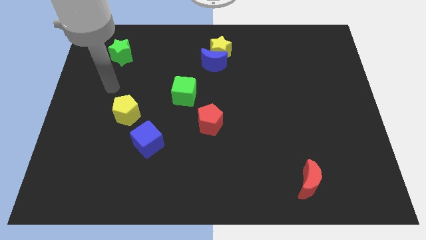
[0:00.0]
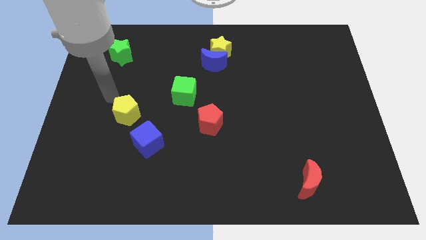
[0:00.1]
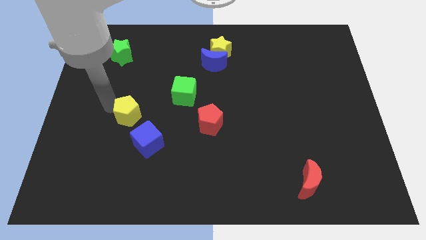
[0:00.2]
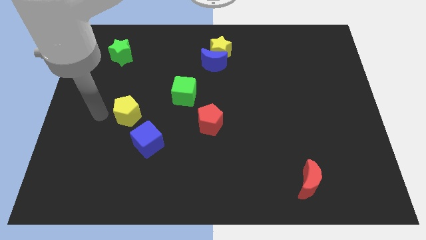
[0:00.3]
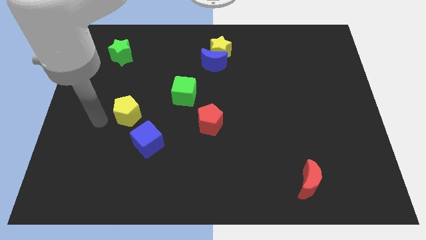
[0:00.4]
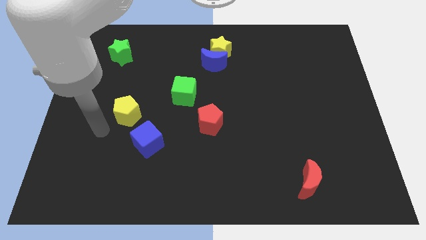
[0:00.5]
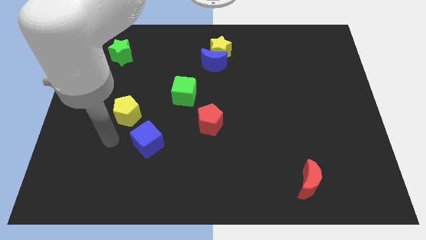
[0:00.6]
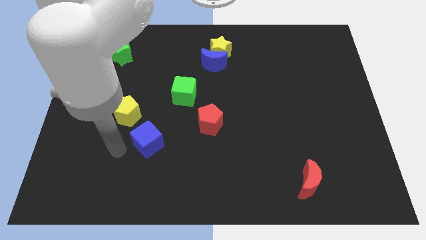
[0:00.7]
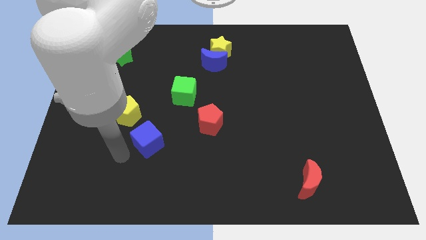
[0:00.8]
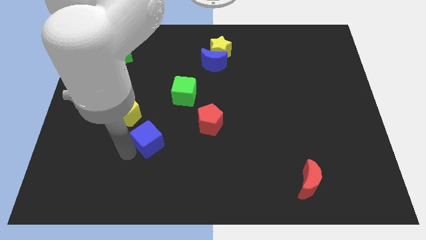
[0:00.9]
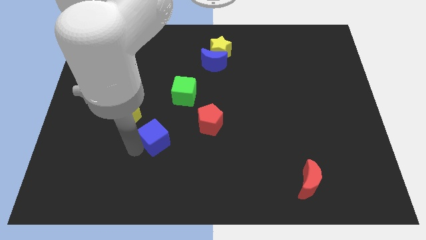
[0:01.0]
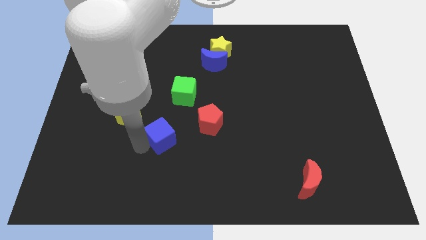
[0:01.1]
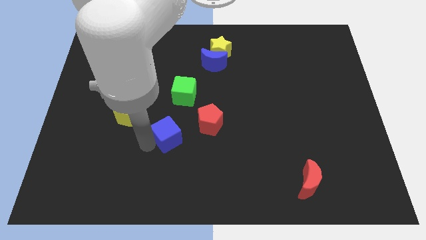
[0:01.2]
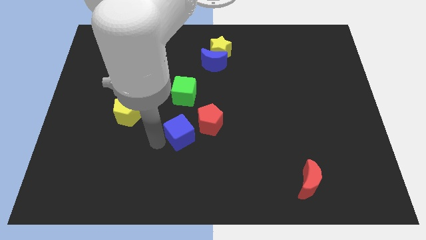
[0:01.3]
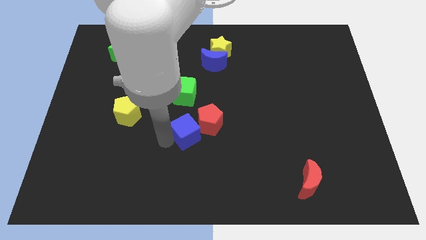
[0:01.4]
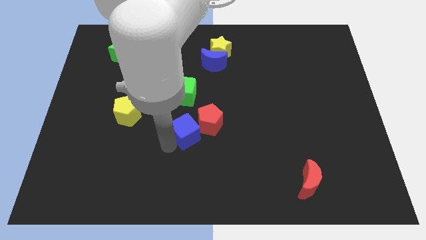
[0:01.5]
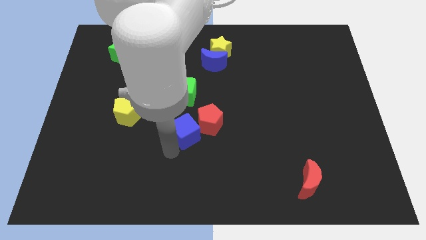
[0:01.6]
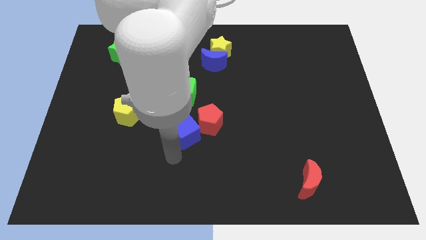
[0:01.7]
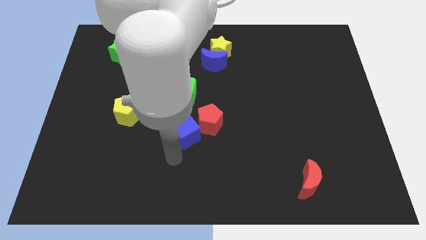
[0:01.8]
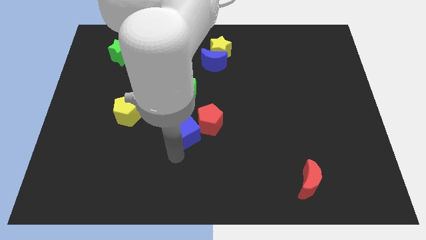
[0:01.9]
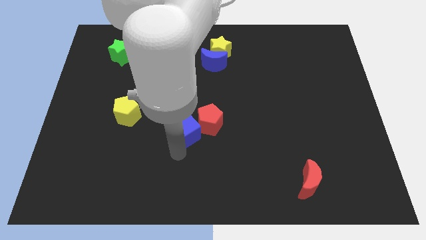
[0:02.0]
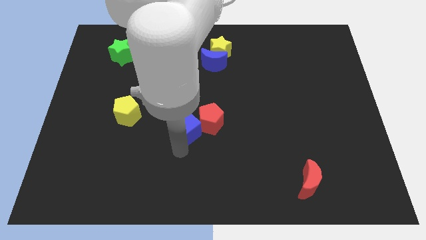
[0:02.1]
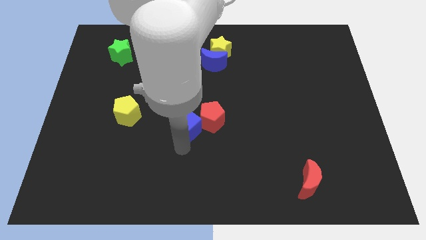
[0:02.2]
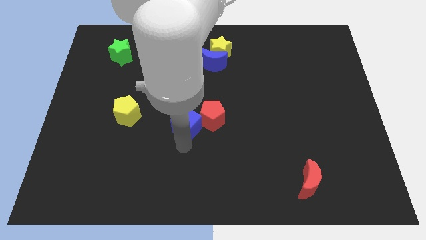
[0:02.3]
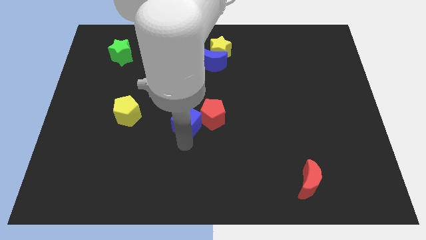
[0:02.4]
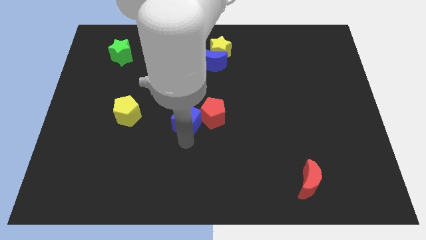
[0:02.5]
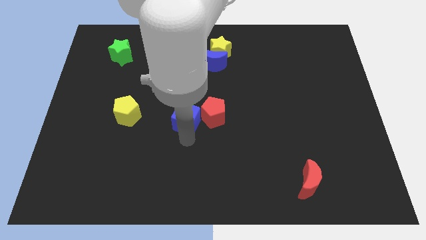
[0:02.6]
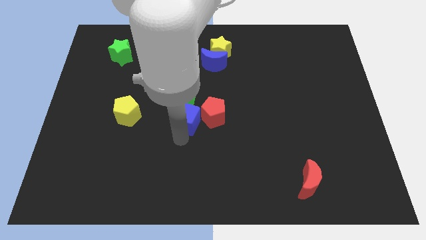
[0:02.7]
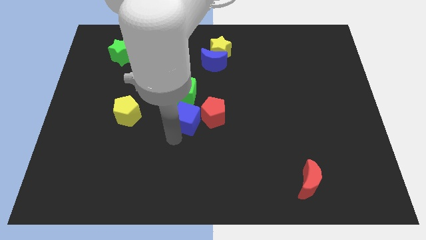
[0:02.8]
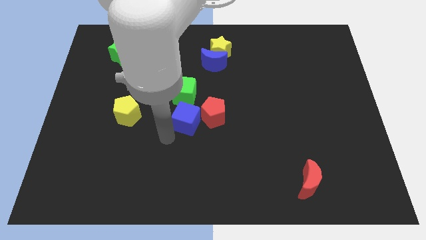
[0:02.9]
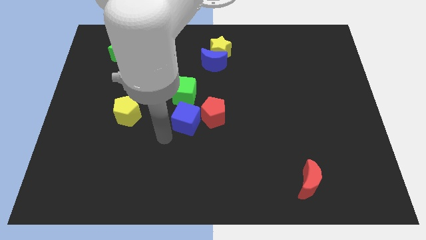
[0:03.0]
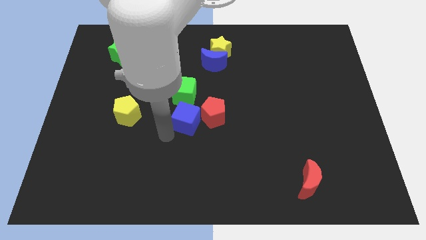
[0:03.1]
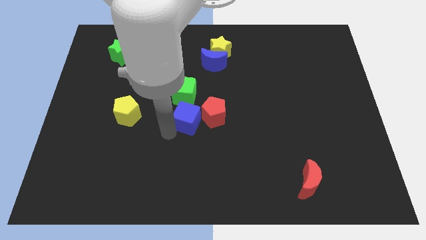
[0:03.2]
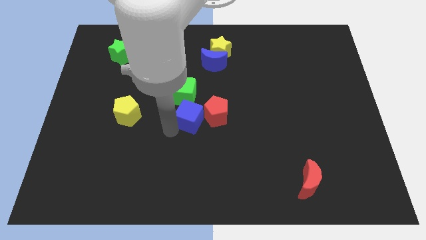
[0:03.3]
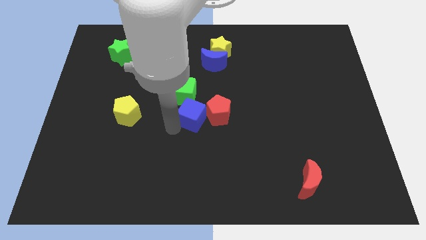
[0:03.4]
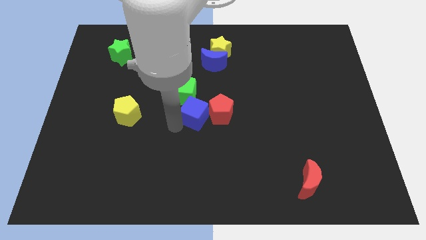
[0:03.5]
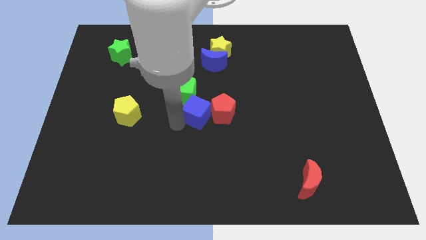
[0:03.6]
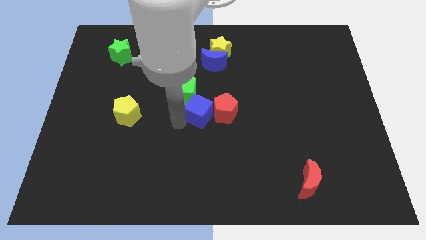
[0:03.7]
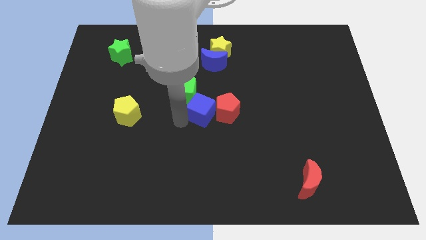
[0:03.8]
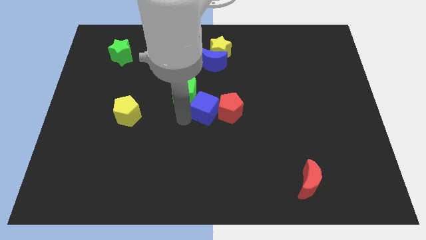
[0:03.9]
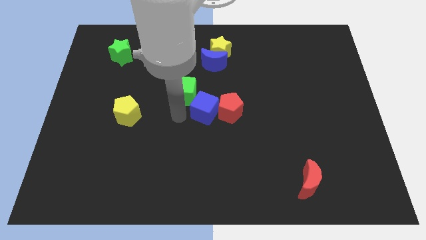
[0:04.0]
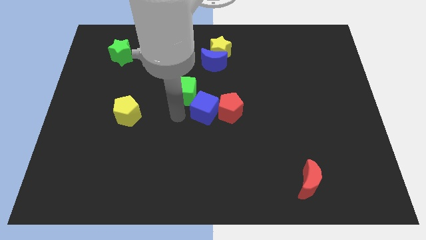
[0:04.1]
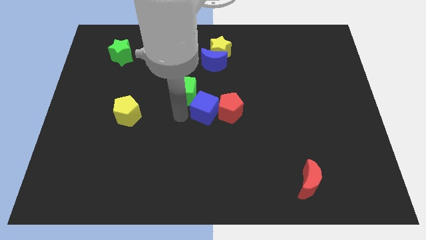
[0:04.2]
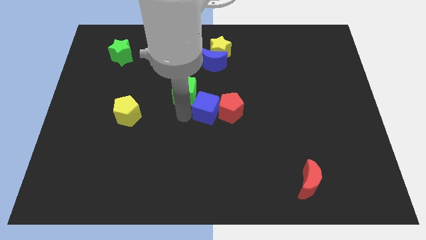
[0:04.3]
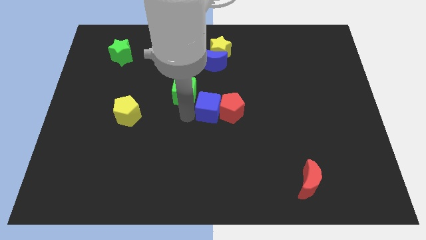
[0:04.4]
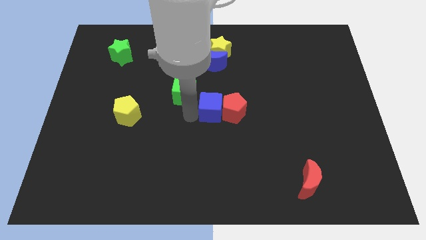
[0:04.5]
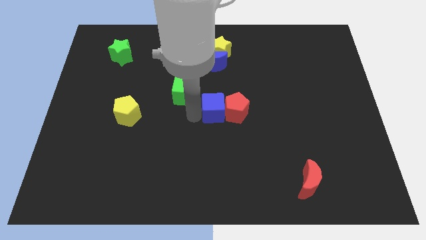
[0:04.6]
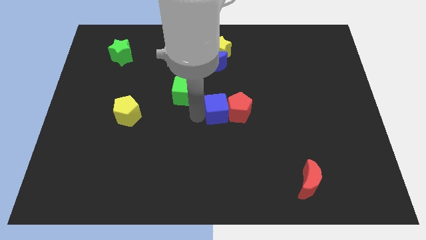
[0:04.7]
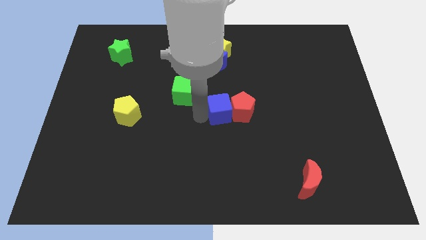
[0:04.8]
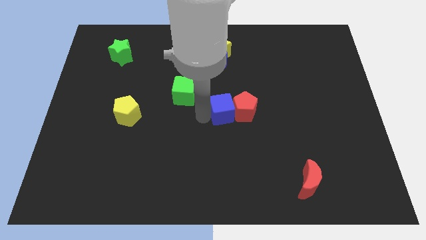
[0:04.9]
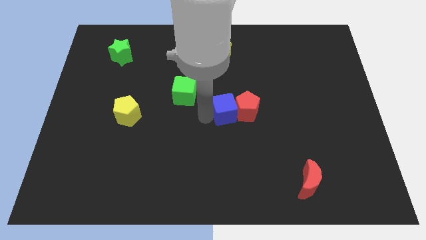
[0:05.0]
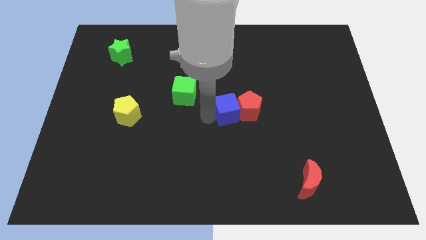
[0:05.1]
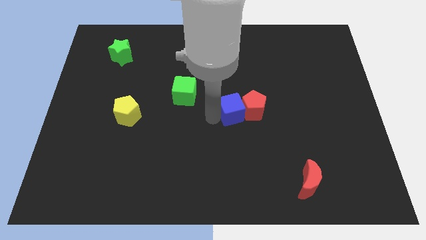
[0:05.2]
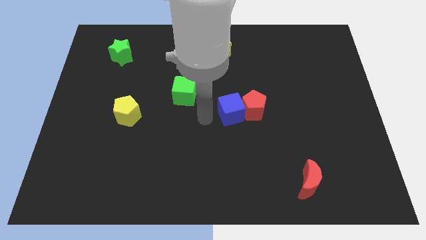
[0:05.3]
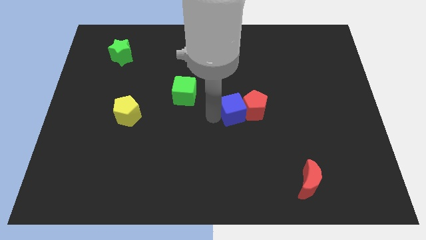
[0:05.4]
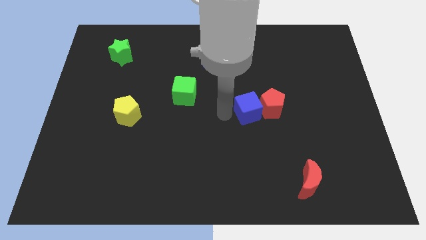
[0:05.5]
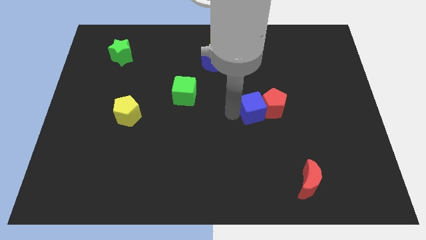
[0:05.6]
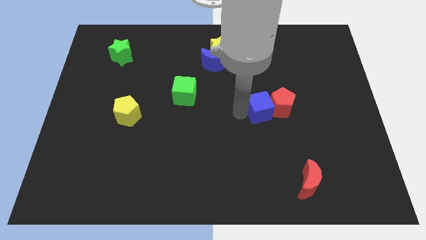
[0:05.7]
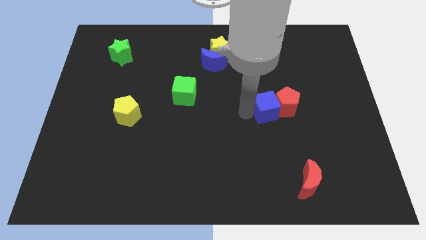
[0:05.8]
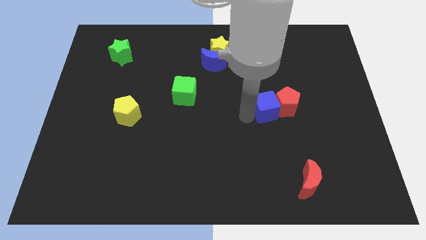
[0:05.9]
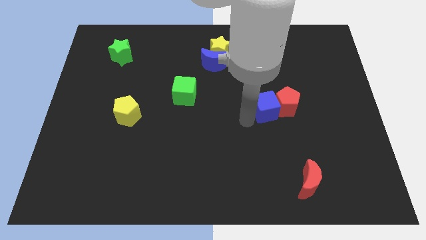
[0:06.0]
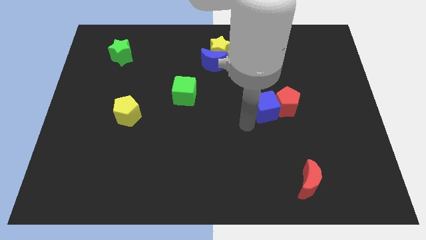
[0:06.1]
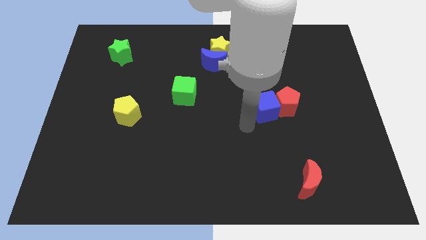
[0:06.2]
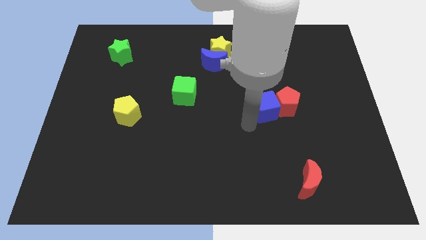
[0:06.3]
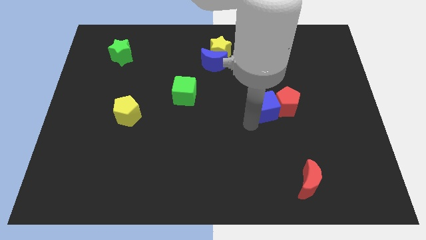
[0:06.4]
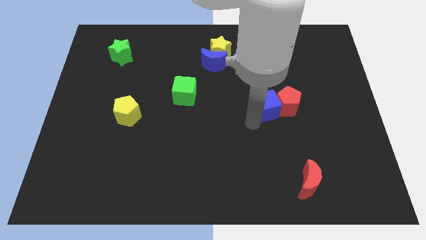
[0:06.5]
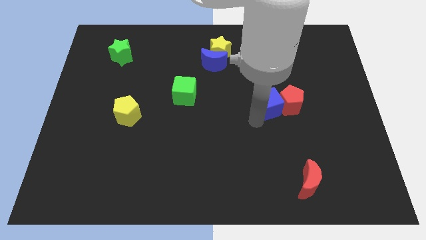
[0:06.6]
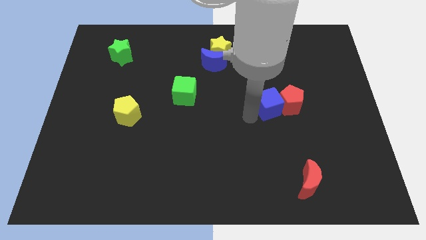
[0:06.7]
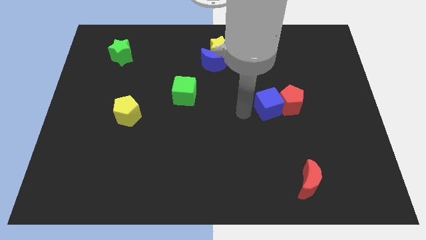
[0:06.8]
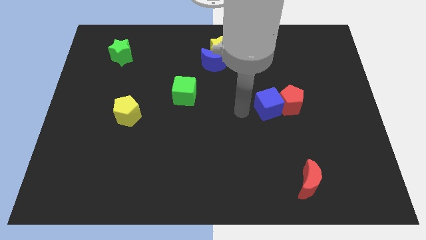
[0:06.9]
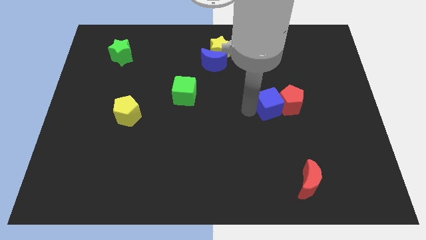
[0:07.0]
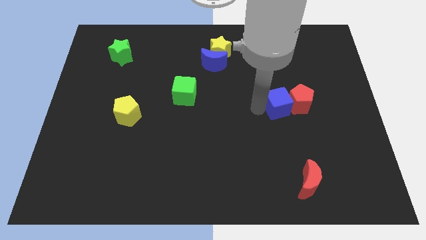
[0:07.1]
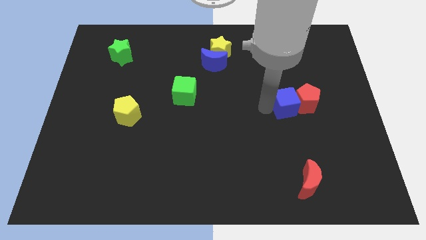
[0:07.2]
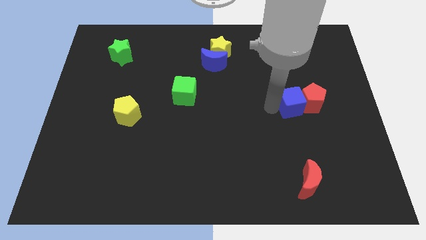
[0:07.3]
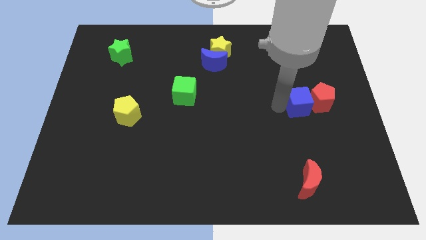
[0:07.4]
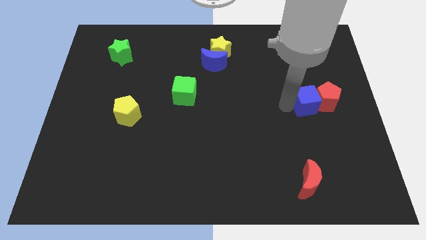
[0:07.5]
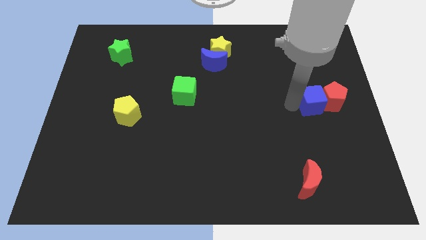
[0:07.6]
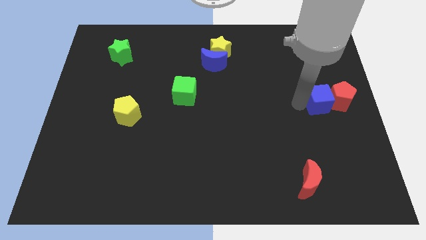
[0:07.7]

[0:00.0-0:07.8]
move the blue cube to the center right
